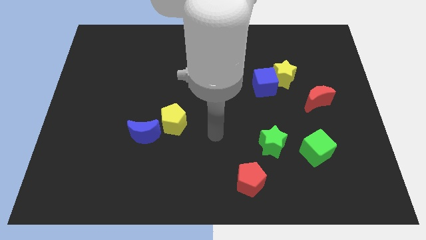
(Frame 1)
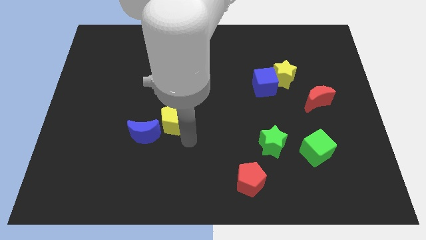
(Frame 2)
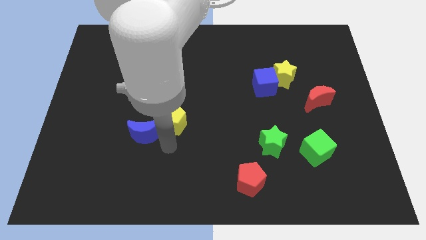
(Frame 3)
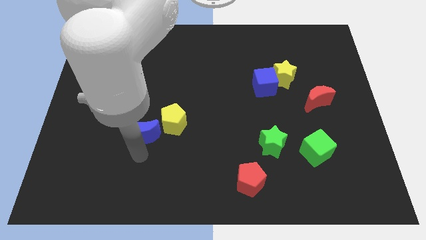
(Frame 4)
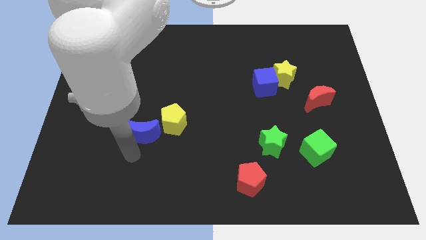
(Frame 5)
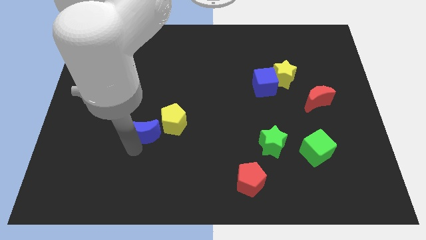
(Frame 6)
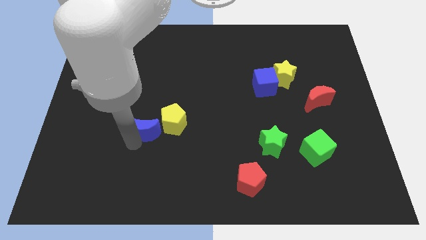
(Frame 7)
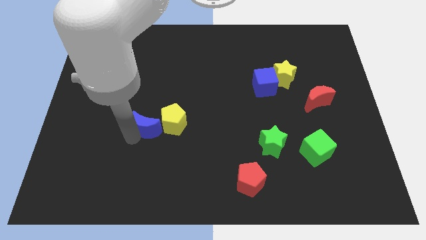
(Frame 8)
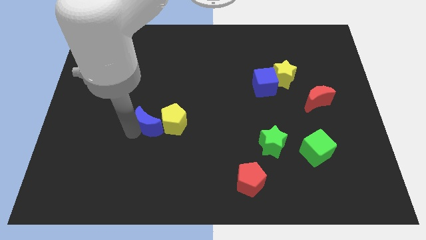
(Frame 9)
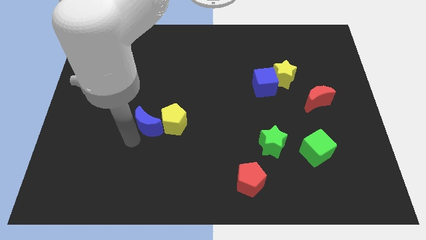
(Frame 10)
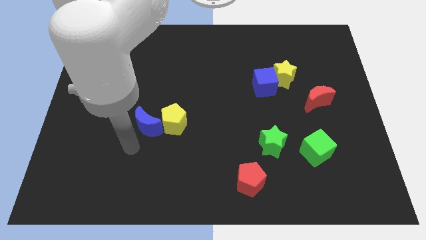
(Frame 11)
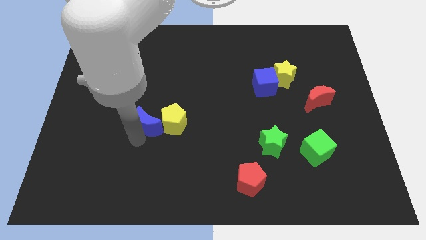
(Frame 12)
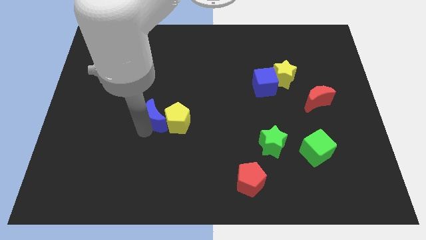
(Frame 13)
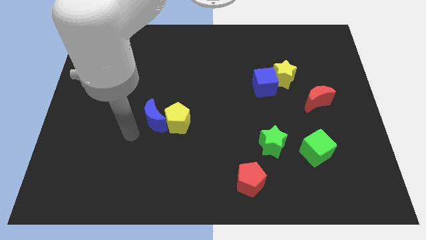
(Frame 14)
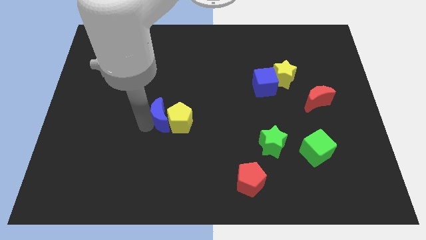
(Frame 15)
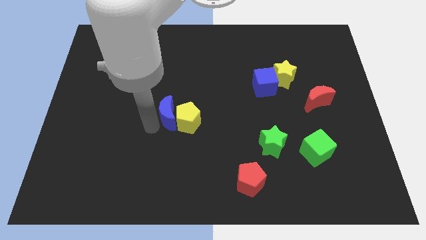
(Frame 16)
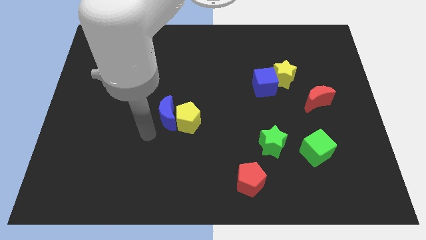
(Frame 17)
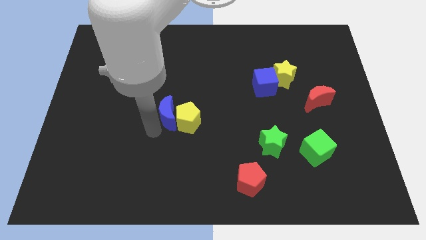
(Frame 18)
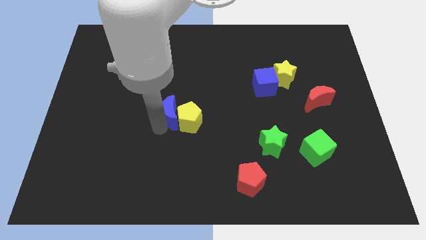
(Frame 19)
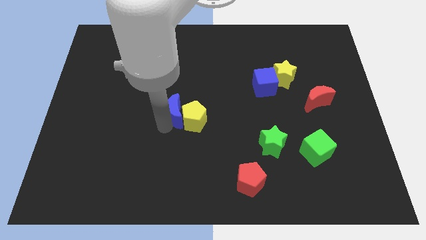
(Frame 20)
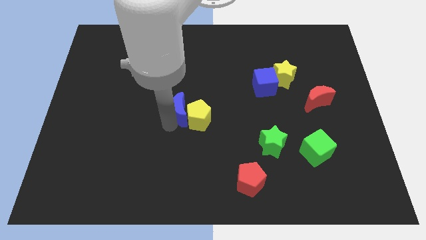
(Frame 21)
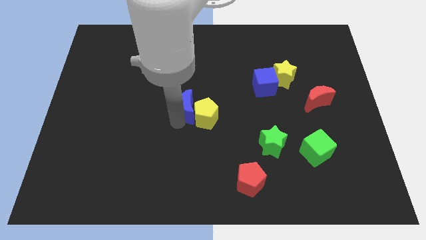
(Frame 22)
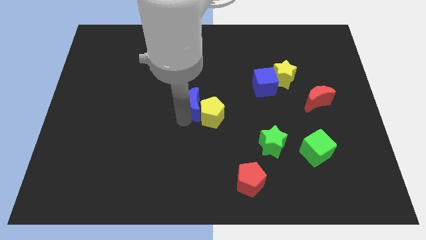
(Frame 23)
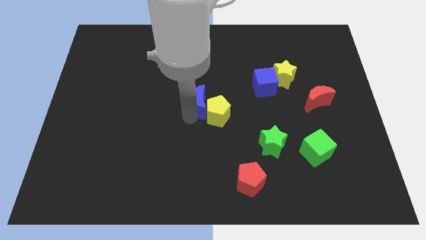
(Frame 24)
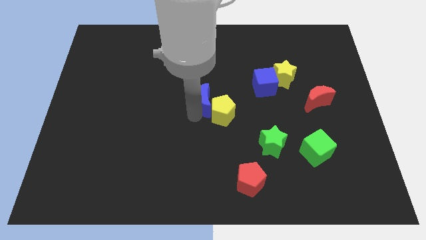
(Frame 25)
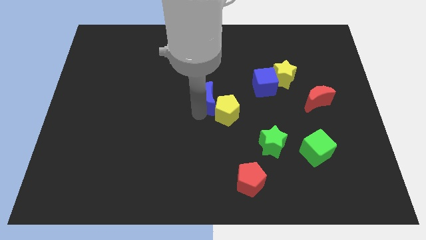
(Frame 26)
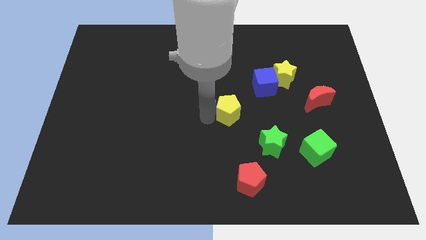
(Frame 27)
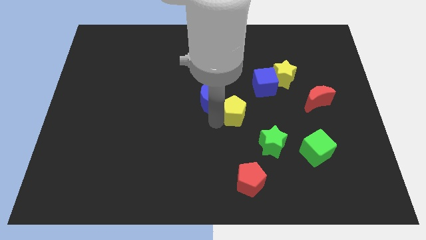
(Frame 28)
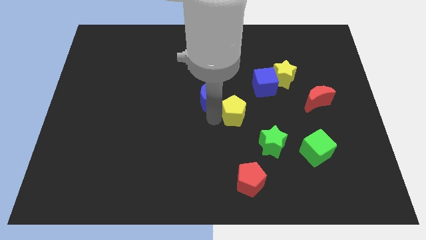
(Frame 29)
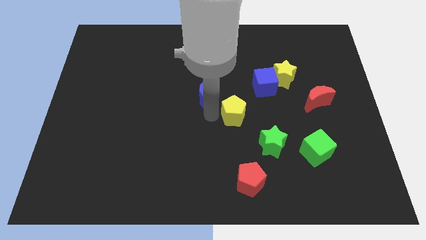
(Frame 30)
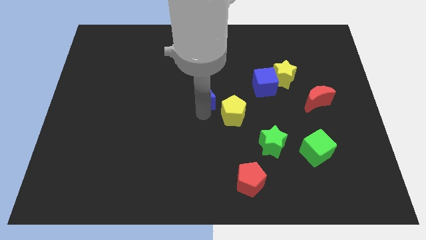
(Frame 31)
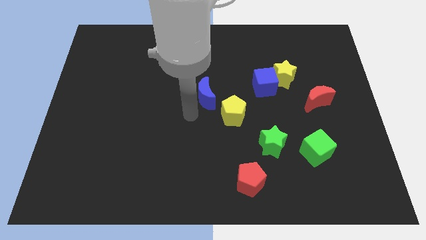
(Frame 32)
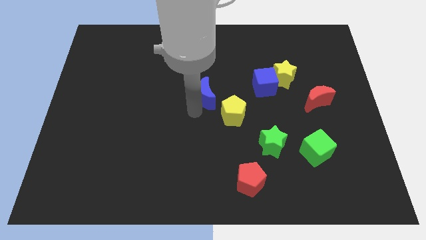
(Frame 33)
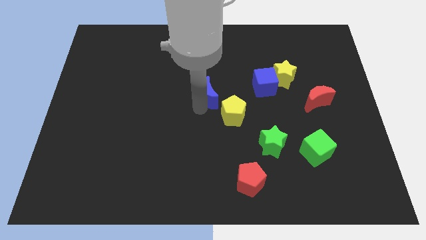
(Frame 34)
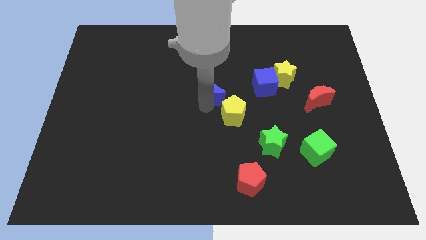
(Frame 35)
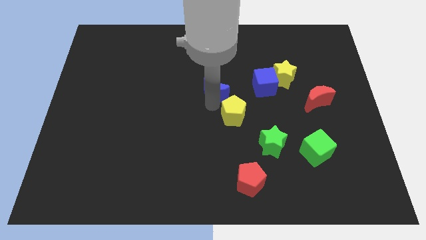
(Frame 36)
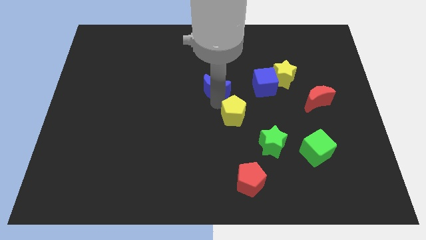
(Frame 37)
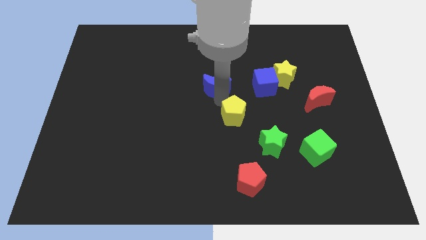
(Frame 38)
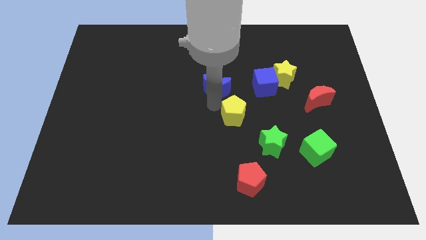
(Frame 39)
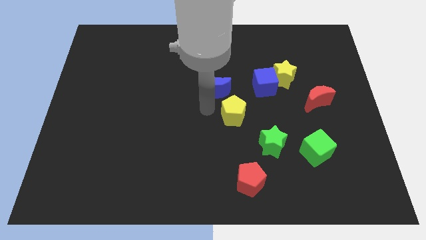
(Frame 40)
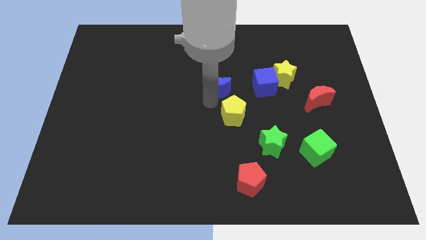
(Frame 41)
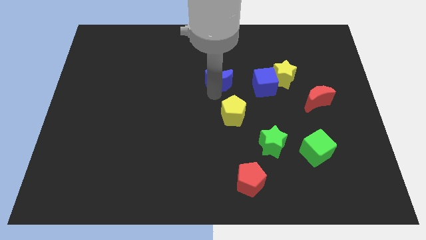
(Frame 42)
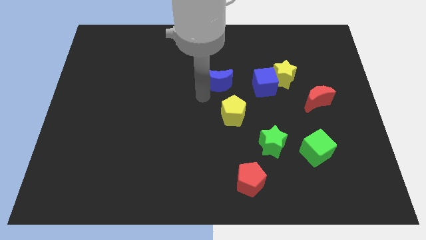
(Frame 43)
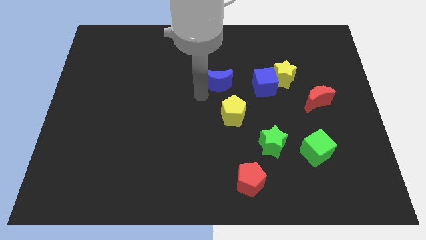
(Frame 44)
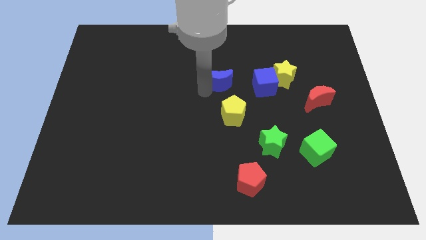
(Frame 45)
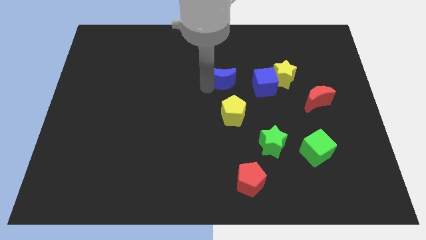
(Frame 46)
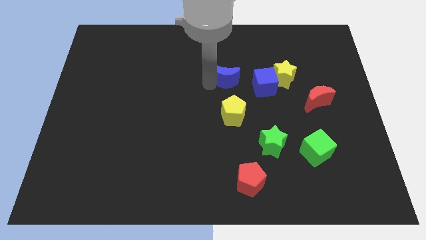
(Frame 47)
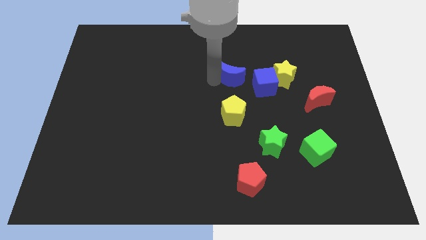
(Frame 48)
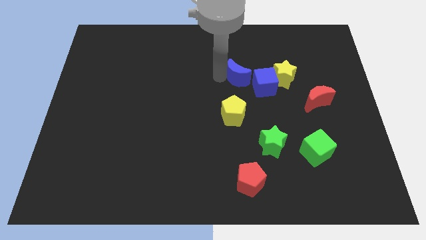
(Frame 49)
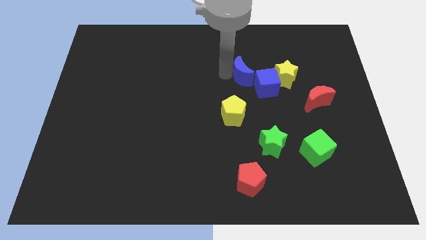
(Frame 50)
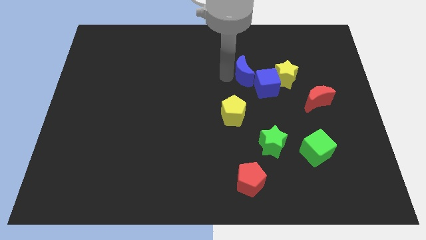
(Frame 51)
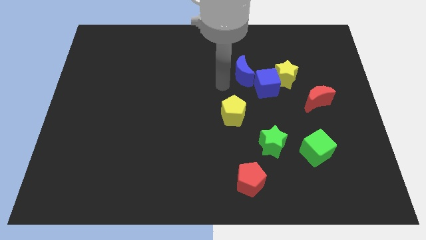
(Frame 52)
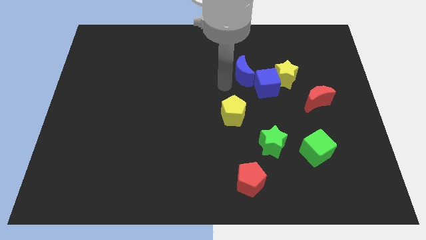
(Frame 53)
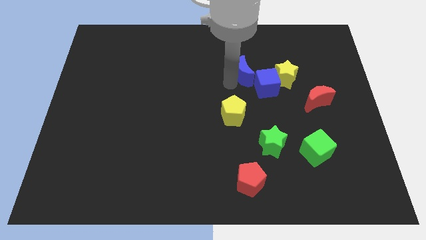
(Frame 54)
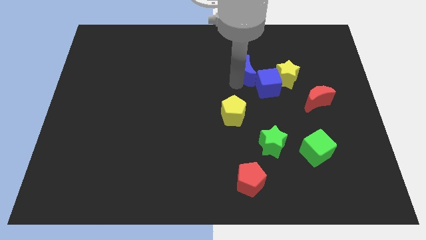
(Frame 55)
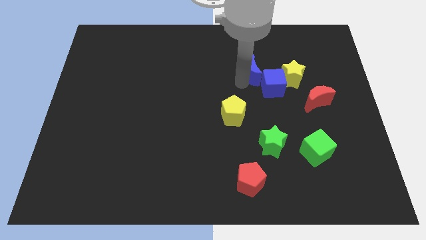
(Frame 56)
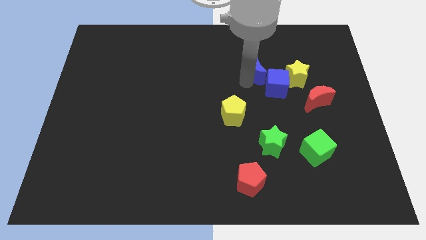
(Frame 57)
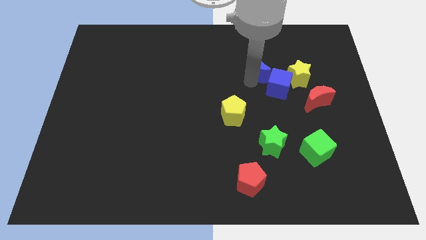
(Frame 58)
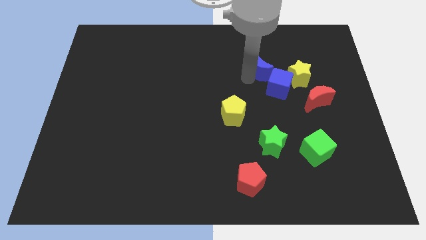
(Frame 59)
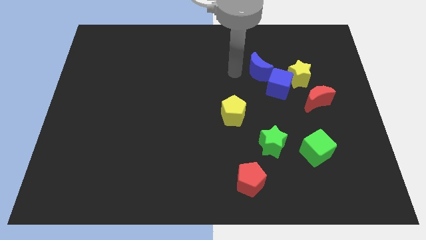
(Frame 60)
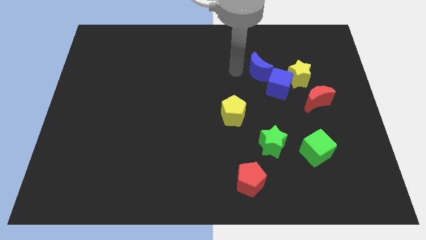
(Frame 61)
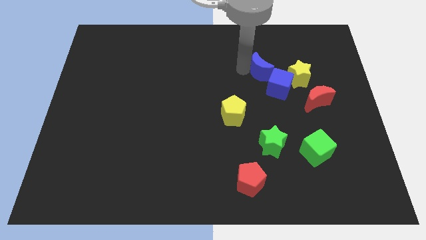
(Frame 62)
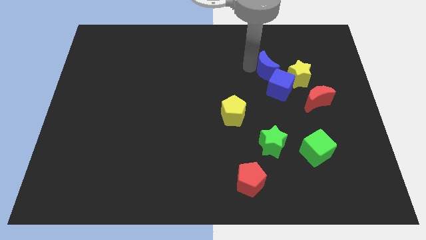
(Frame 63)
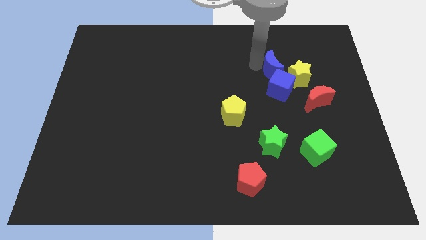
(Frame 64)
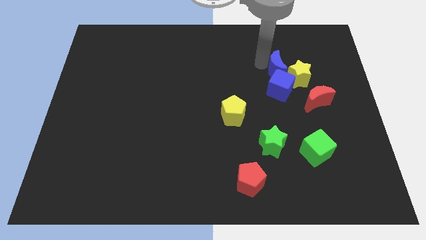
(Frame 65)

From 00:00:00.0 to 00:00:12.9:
push the blue moon to the top right side of the blue cube

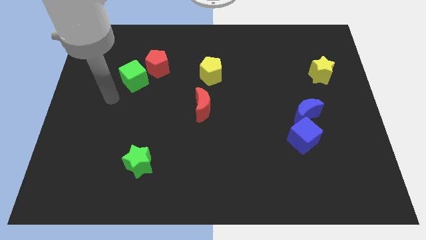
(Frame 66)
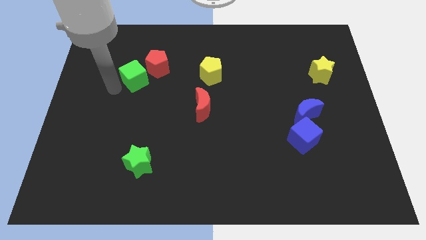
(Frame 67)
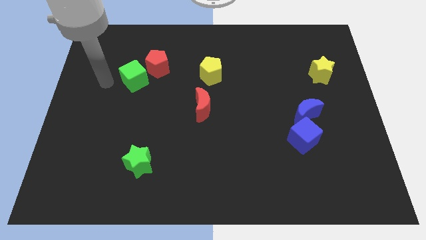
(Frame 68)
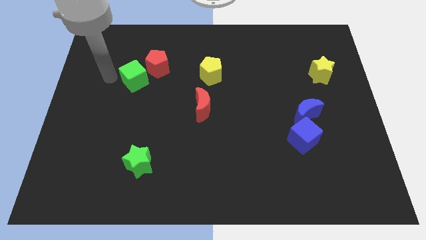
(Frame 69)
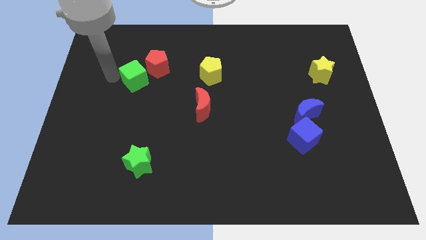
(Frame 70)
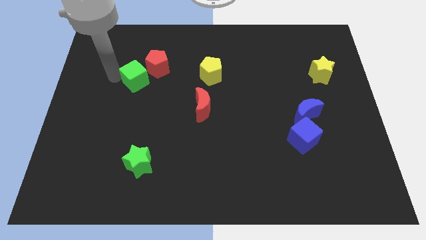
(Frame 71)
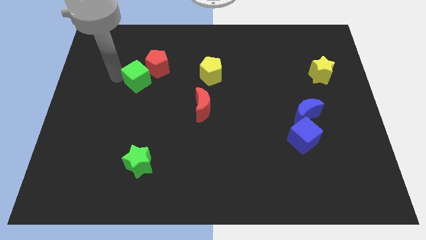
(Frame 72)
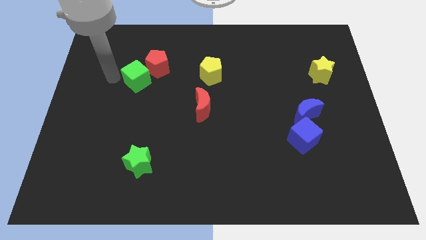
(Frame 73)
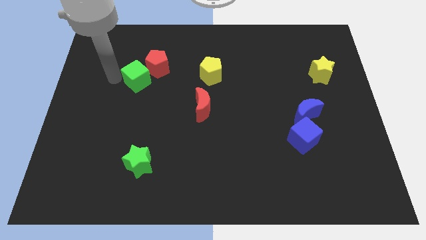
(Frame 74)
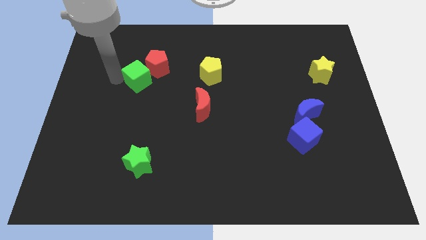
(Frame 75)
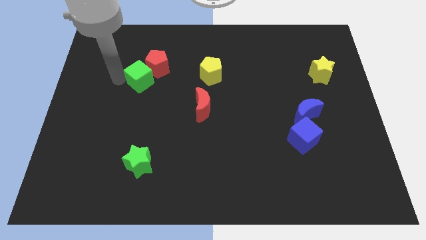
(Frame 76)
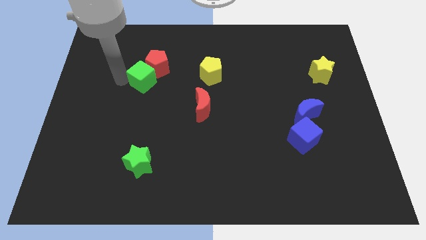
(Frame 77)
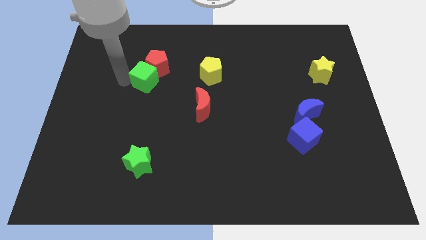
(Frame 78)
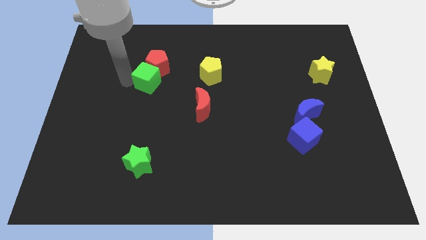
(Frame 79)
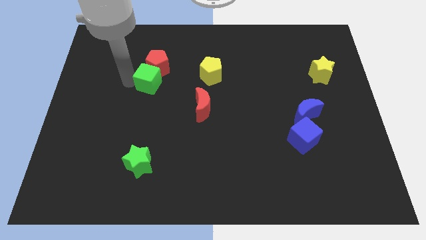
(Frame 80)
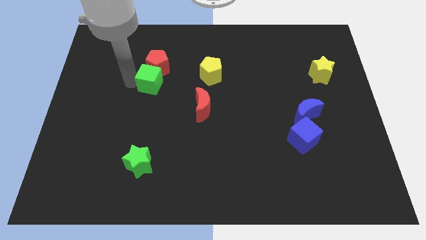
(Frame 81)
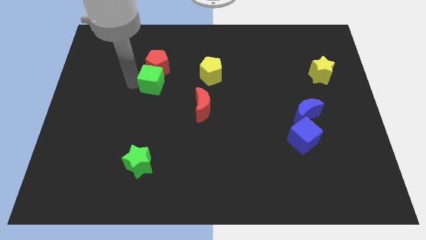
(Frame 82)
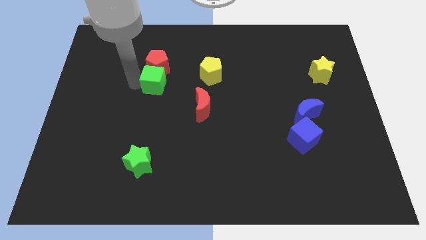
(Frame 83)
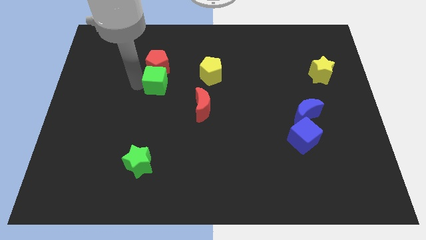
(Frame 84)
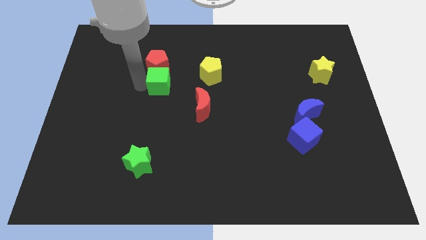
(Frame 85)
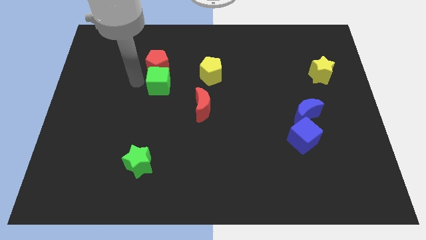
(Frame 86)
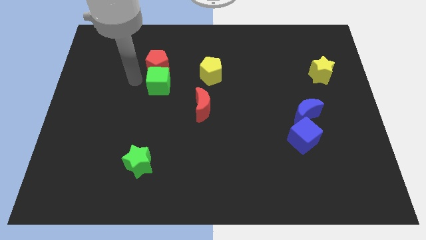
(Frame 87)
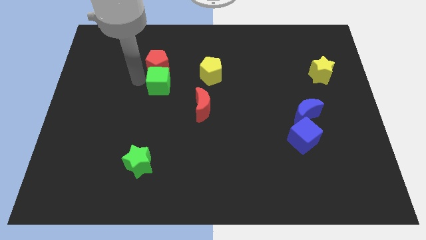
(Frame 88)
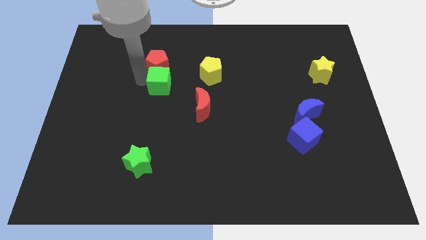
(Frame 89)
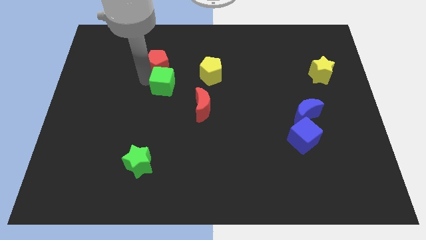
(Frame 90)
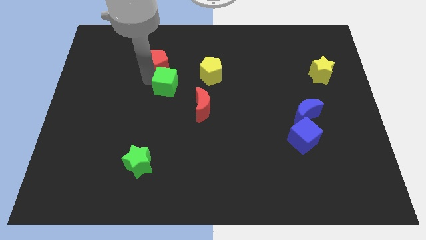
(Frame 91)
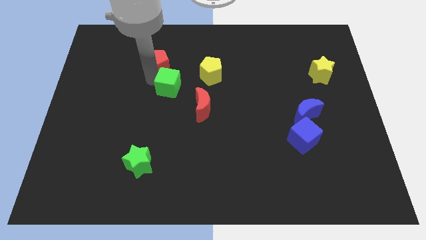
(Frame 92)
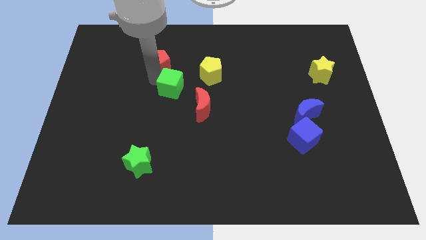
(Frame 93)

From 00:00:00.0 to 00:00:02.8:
put the green cube diagonally down and to the left of the yellow pentagon
